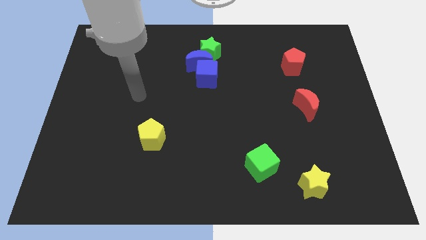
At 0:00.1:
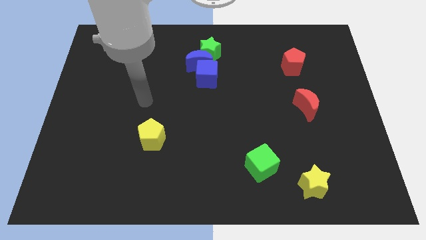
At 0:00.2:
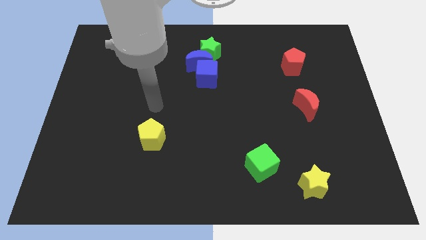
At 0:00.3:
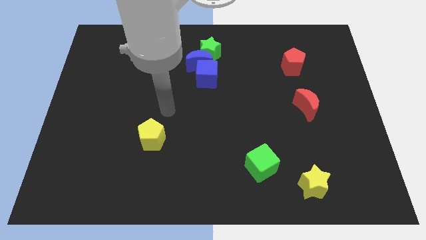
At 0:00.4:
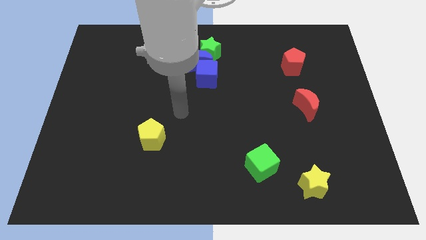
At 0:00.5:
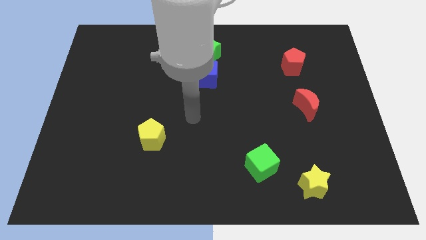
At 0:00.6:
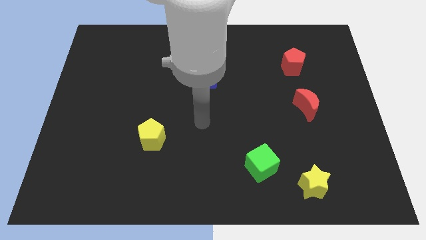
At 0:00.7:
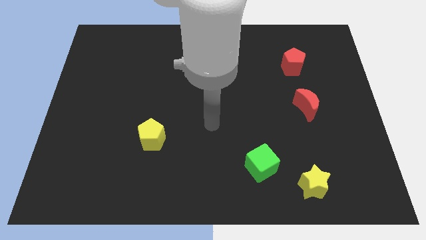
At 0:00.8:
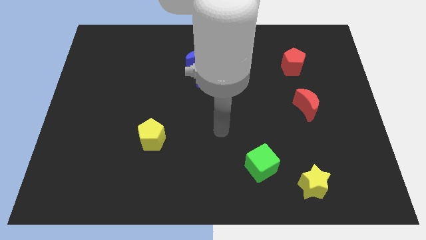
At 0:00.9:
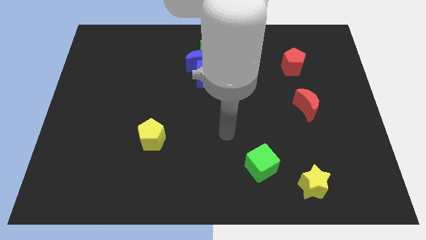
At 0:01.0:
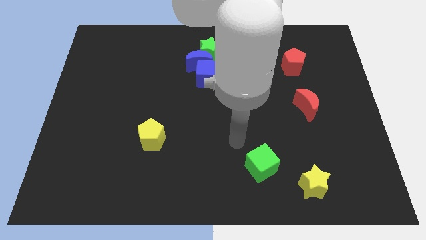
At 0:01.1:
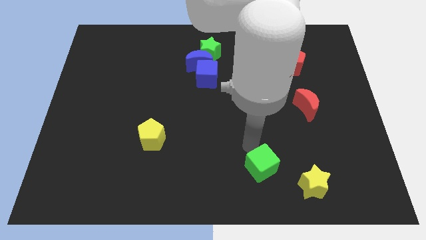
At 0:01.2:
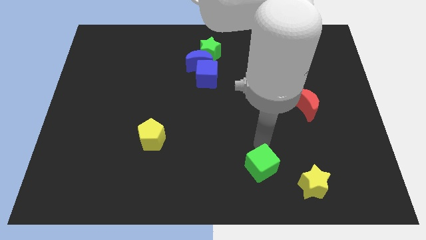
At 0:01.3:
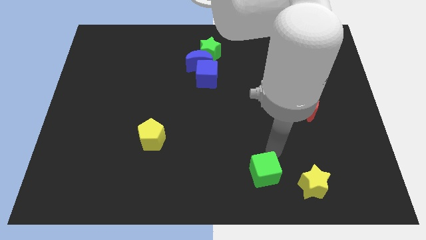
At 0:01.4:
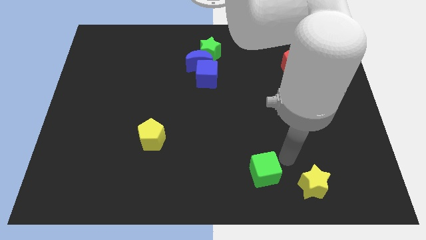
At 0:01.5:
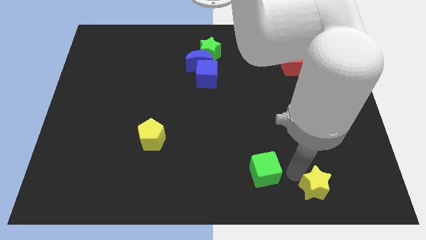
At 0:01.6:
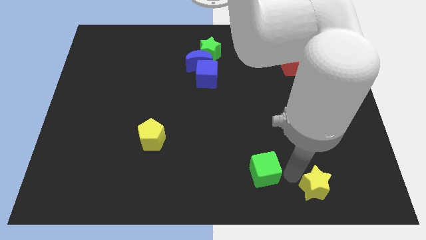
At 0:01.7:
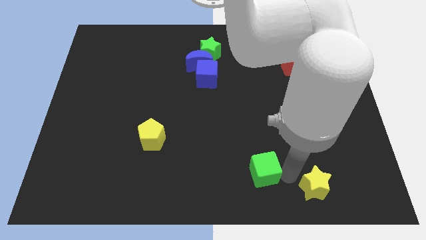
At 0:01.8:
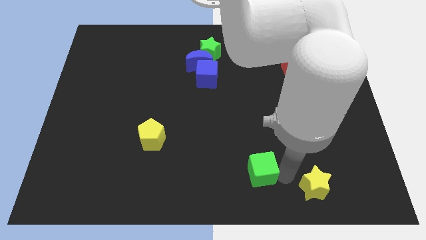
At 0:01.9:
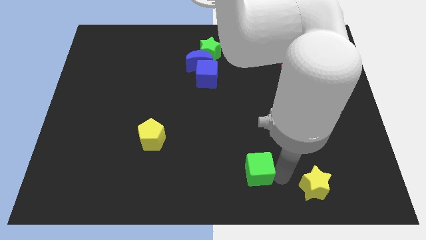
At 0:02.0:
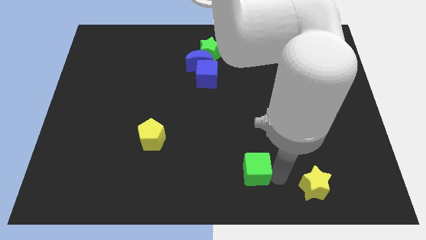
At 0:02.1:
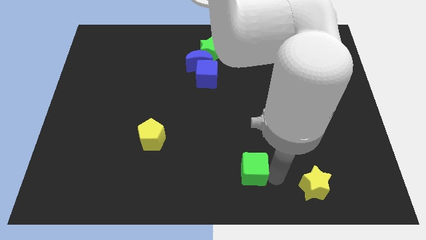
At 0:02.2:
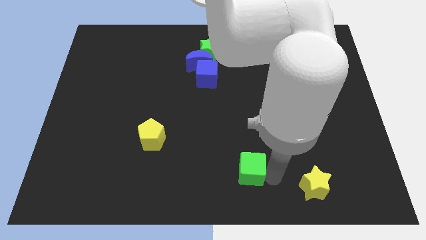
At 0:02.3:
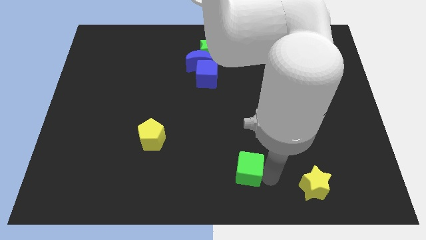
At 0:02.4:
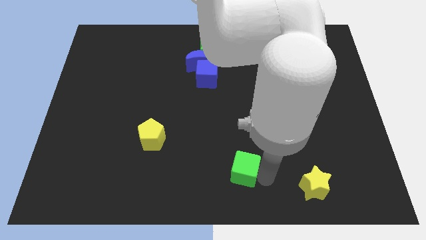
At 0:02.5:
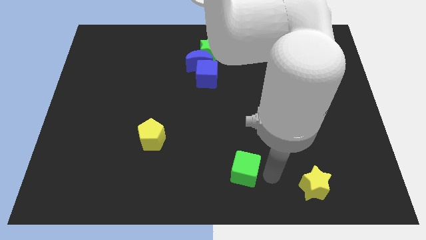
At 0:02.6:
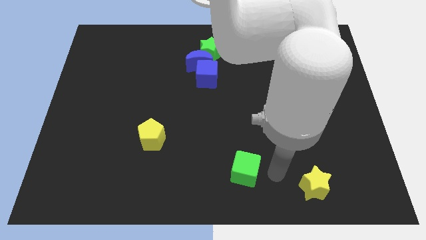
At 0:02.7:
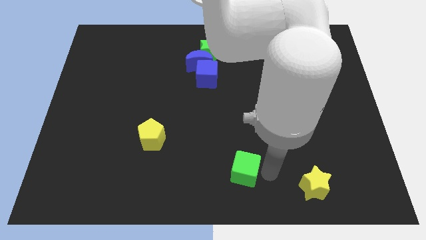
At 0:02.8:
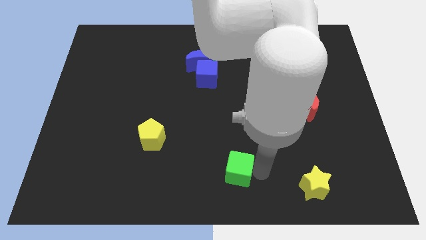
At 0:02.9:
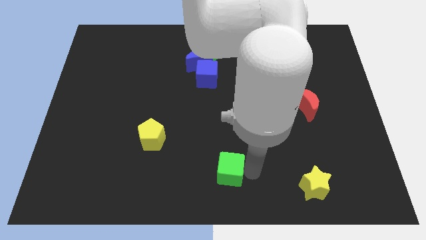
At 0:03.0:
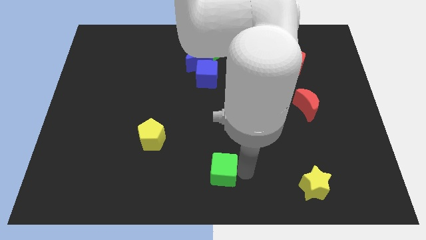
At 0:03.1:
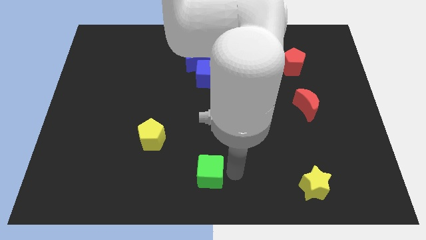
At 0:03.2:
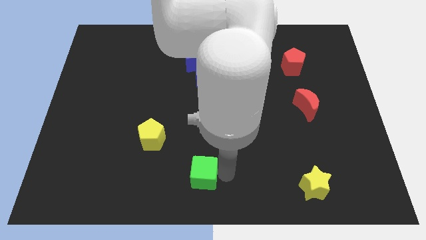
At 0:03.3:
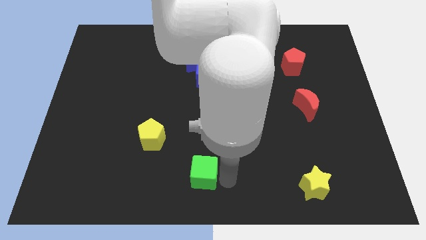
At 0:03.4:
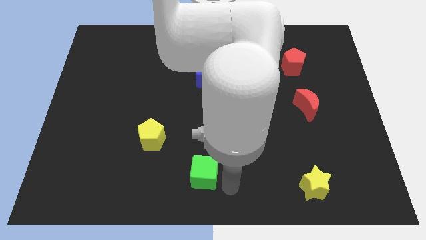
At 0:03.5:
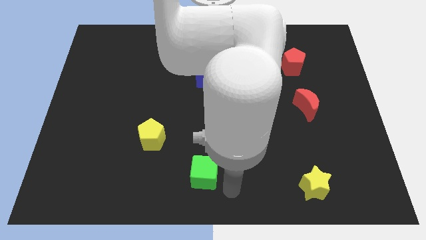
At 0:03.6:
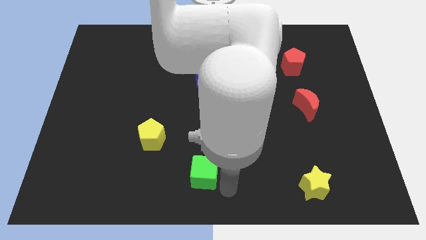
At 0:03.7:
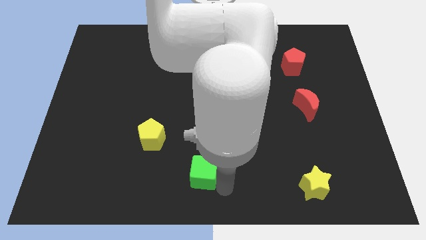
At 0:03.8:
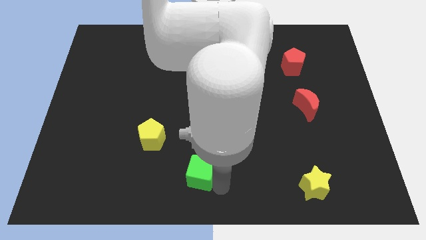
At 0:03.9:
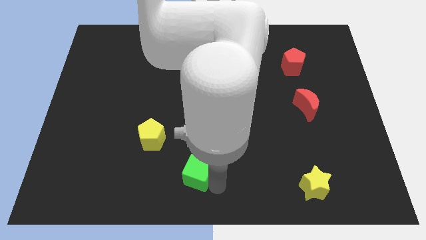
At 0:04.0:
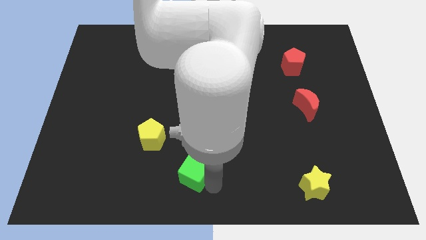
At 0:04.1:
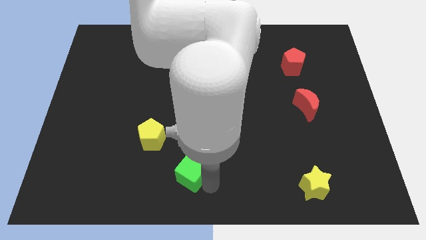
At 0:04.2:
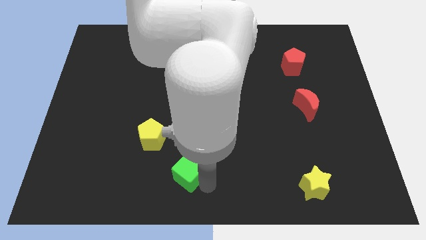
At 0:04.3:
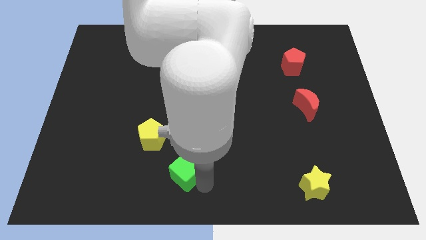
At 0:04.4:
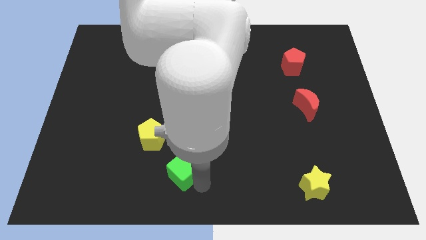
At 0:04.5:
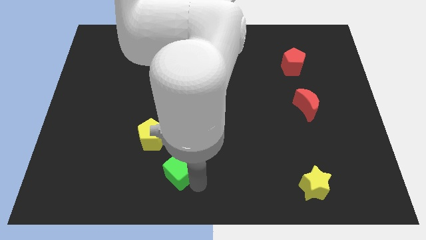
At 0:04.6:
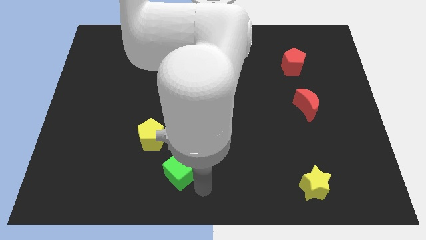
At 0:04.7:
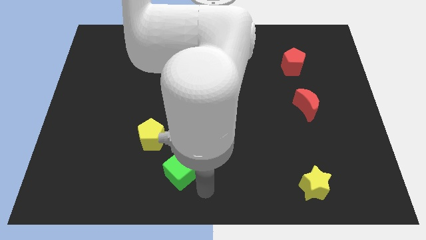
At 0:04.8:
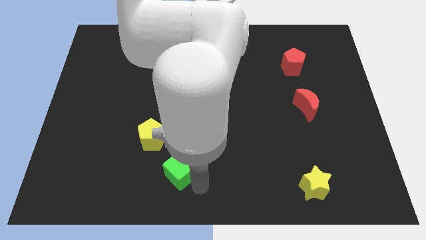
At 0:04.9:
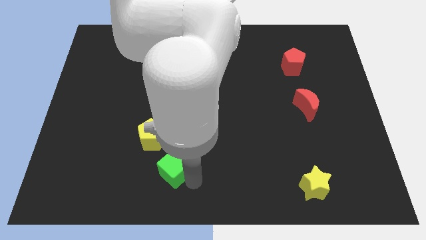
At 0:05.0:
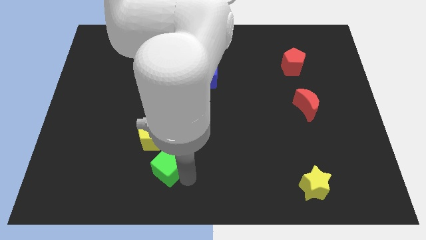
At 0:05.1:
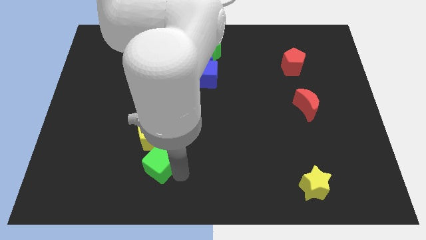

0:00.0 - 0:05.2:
move the green cube left

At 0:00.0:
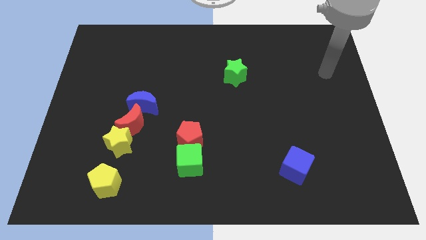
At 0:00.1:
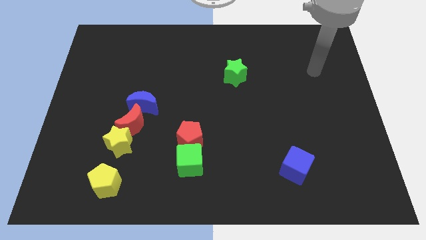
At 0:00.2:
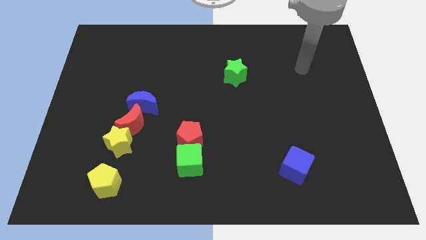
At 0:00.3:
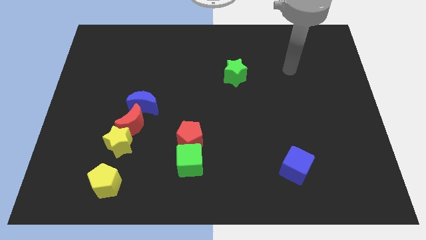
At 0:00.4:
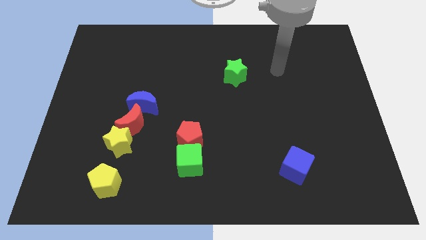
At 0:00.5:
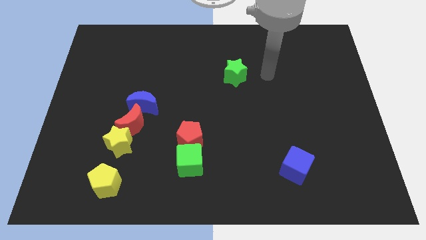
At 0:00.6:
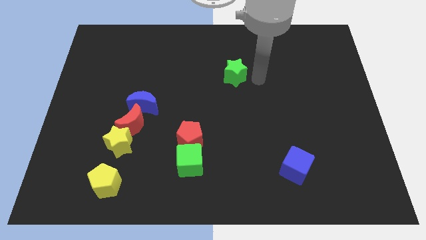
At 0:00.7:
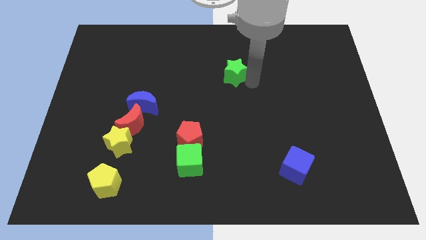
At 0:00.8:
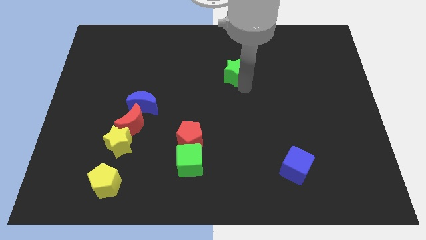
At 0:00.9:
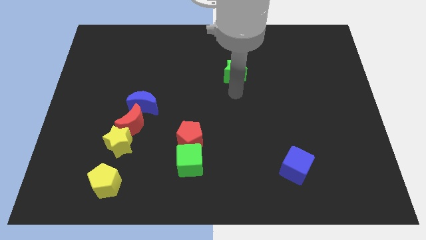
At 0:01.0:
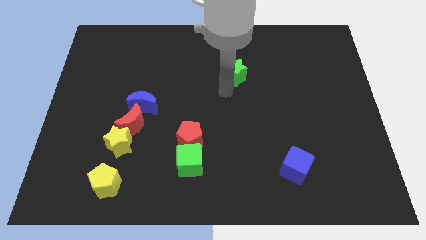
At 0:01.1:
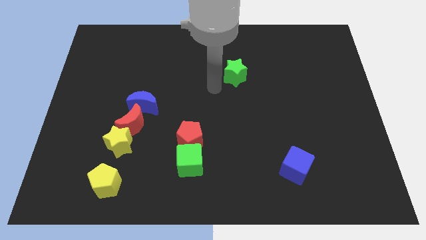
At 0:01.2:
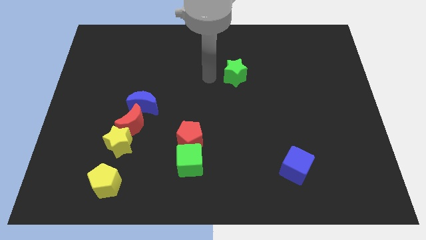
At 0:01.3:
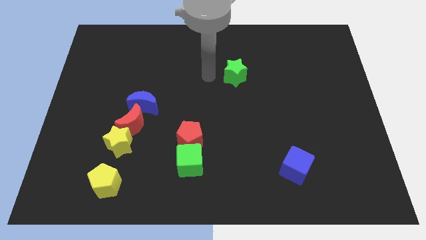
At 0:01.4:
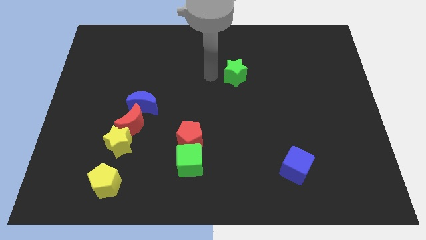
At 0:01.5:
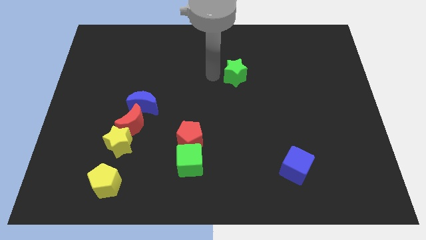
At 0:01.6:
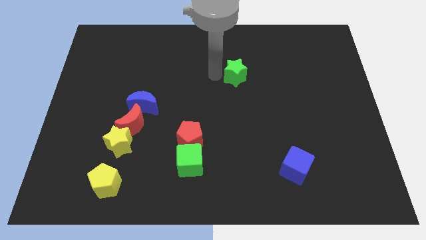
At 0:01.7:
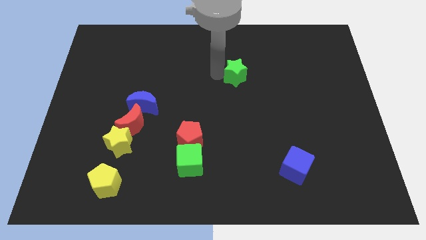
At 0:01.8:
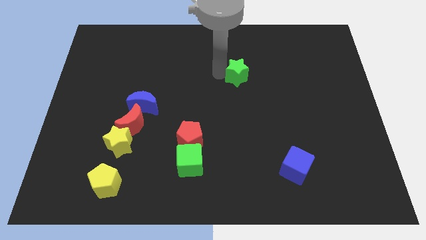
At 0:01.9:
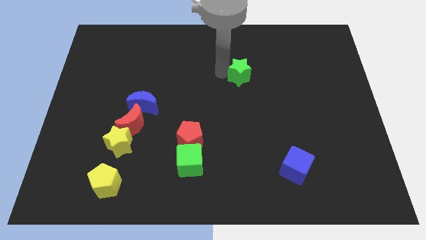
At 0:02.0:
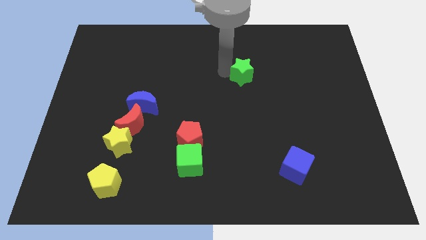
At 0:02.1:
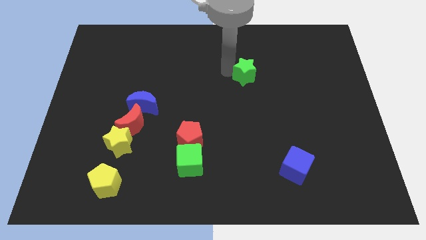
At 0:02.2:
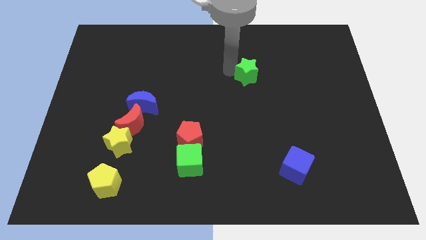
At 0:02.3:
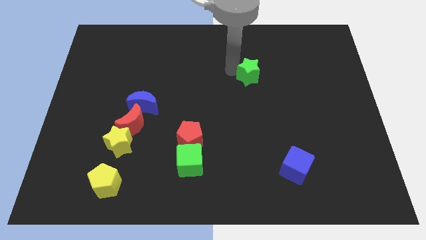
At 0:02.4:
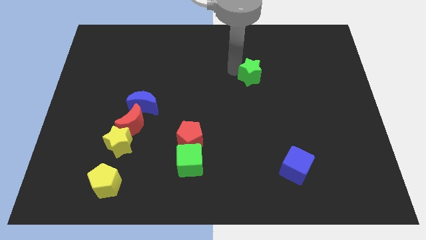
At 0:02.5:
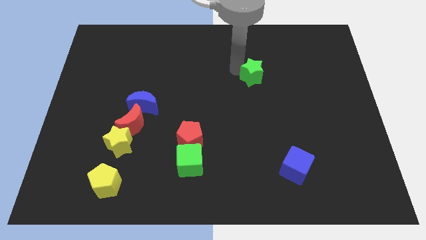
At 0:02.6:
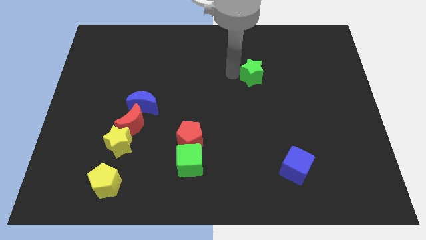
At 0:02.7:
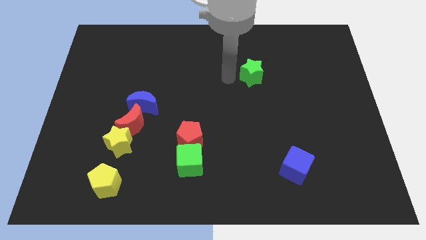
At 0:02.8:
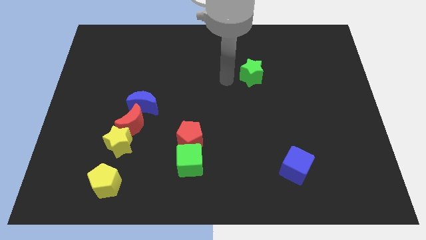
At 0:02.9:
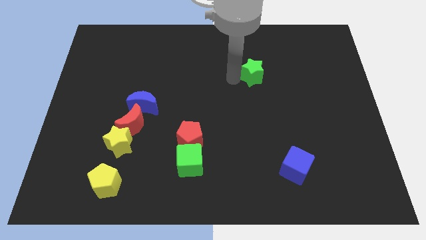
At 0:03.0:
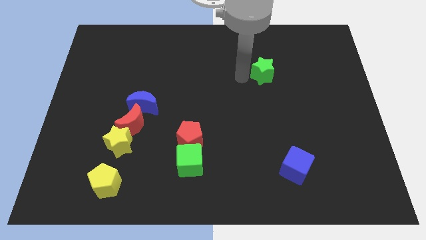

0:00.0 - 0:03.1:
push the green star right slightly
